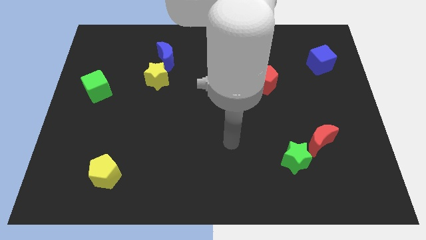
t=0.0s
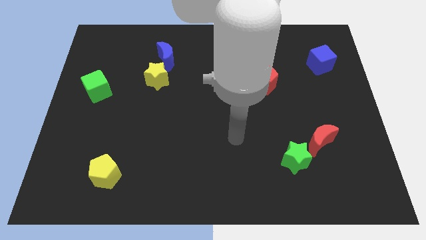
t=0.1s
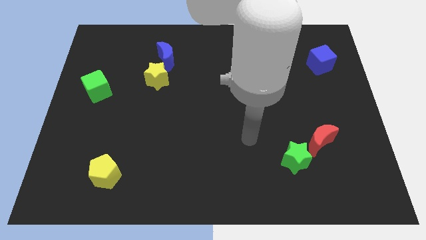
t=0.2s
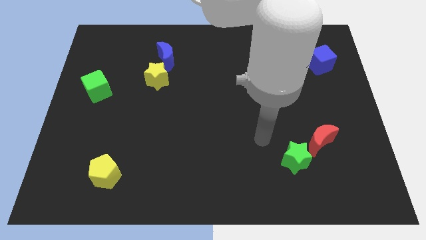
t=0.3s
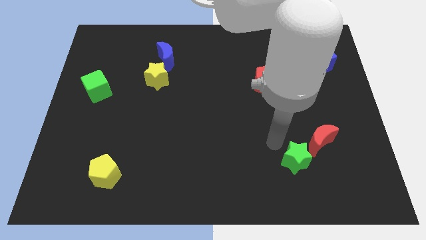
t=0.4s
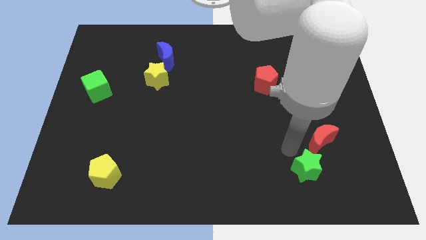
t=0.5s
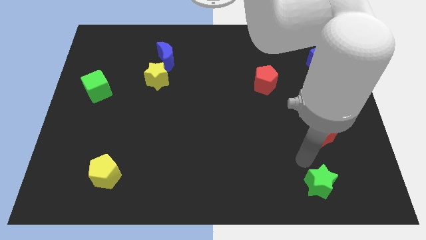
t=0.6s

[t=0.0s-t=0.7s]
separate the red moon from the green star

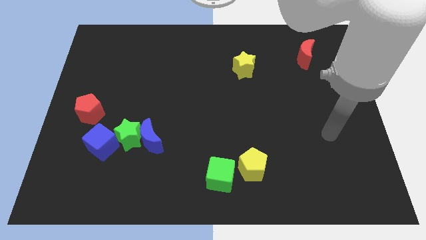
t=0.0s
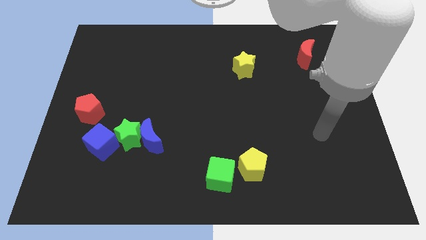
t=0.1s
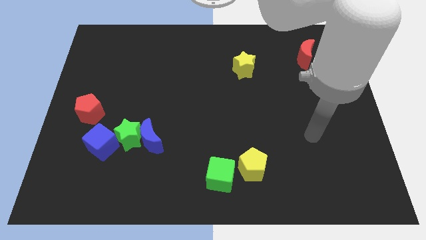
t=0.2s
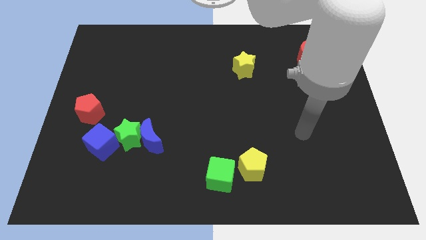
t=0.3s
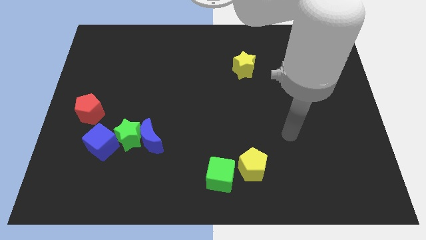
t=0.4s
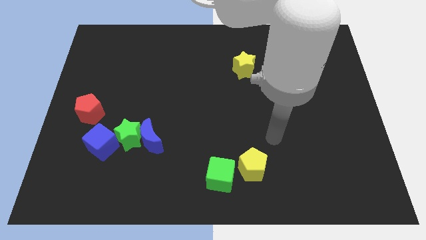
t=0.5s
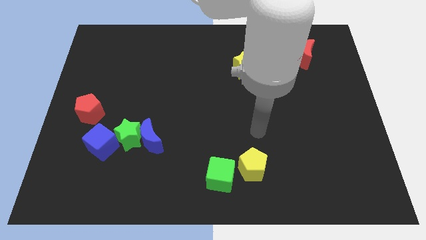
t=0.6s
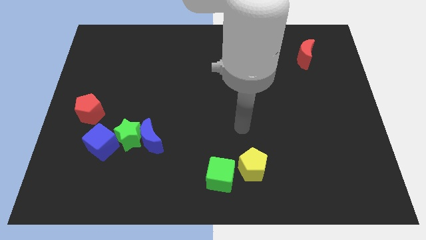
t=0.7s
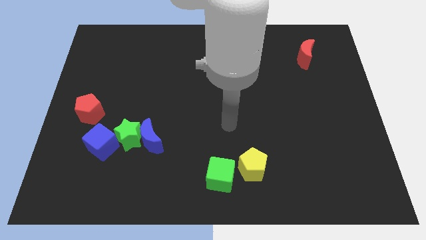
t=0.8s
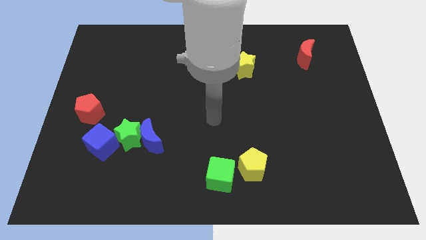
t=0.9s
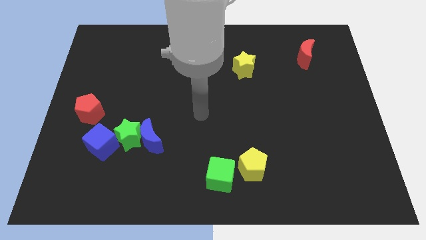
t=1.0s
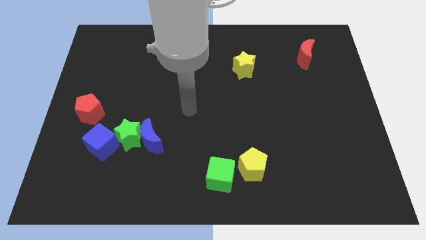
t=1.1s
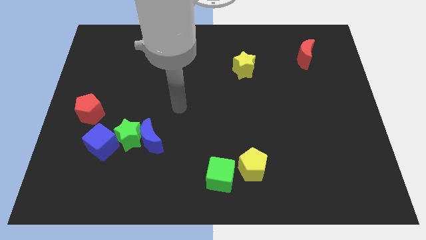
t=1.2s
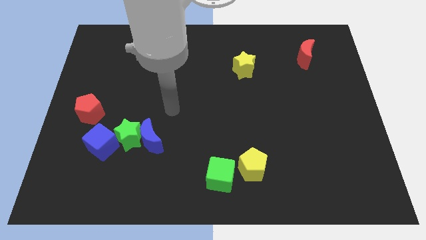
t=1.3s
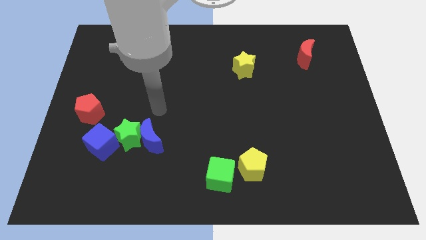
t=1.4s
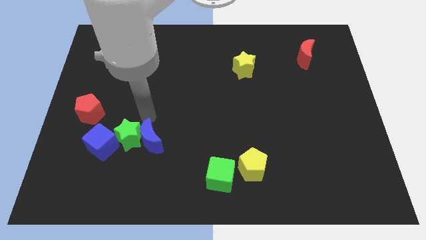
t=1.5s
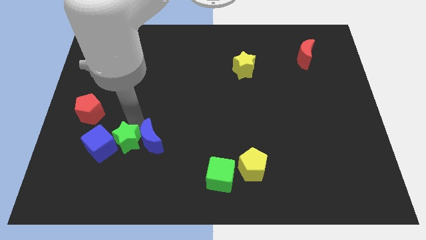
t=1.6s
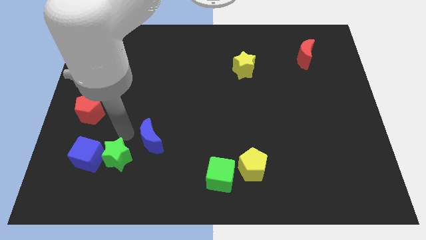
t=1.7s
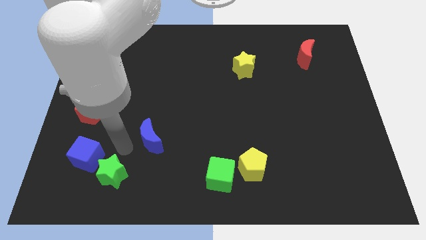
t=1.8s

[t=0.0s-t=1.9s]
separate the blue moon from the green star

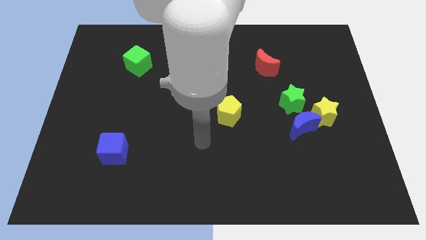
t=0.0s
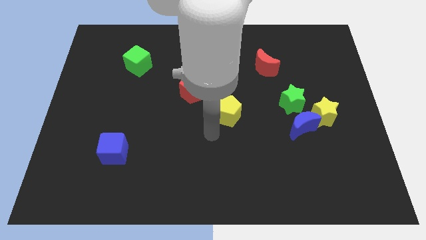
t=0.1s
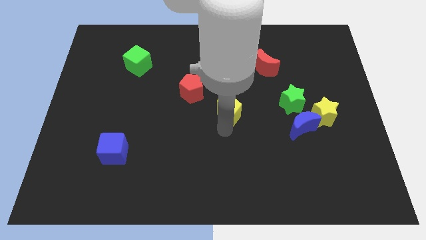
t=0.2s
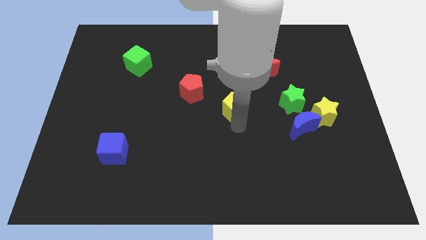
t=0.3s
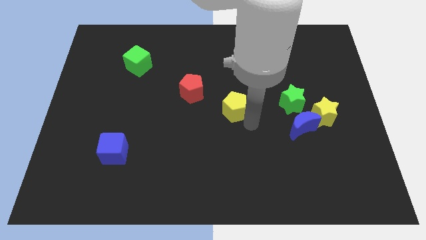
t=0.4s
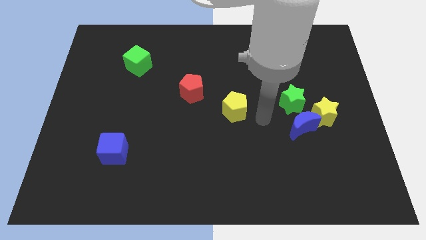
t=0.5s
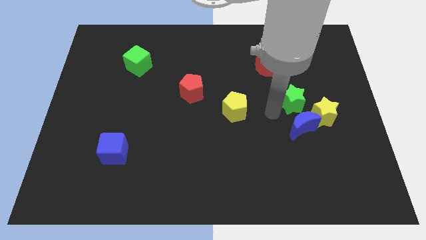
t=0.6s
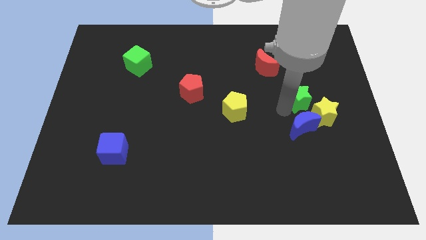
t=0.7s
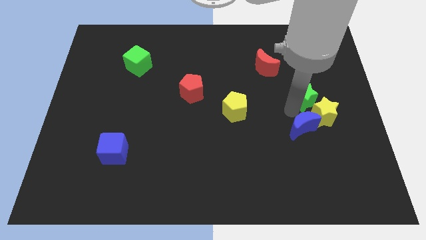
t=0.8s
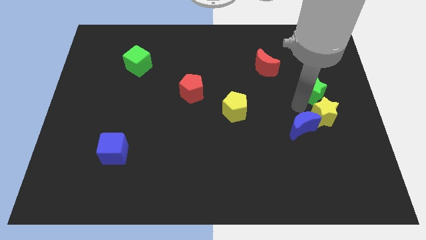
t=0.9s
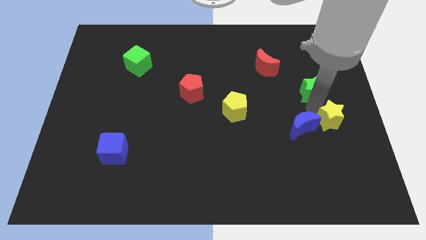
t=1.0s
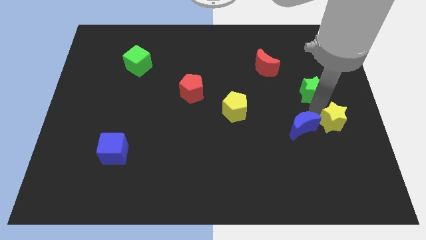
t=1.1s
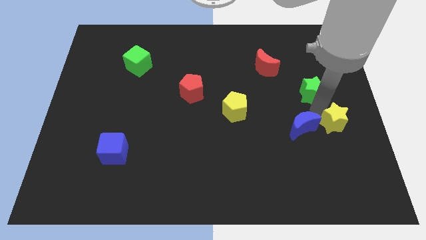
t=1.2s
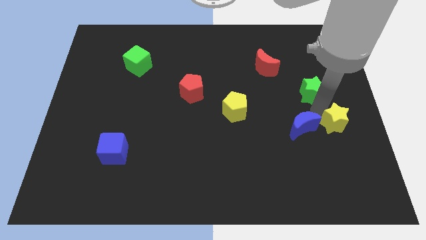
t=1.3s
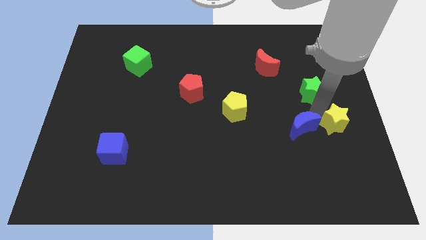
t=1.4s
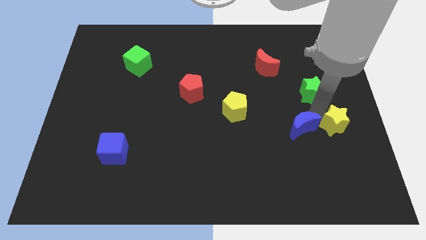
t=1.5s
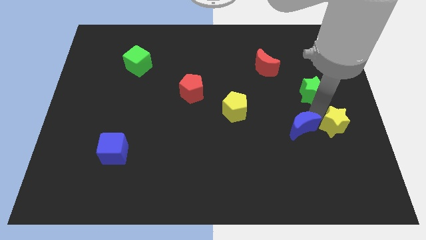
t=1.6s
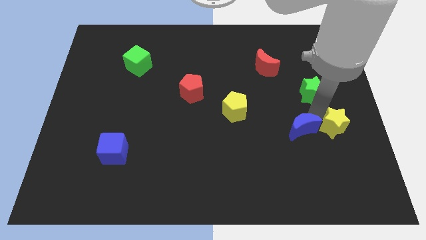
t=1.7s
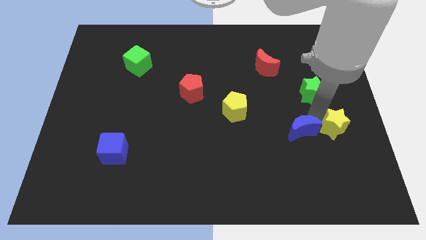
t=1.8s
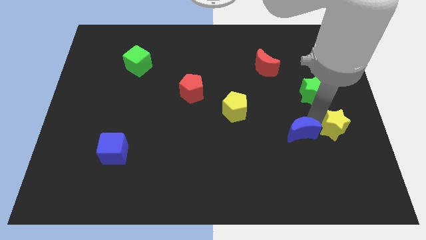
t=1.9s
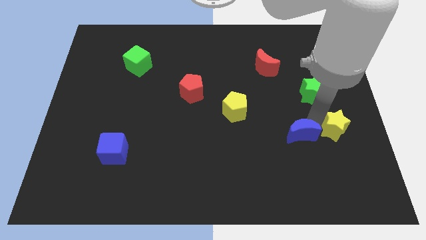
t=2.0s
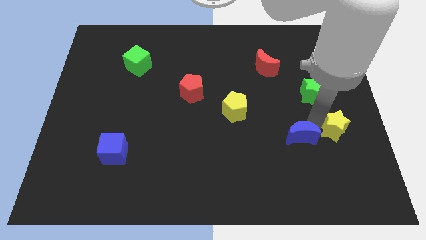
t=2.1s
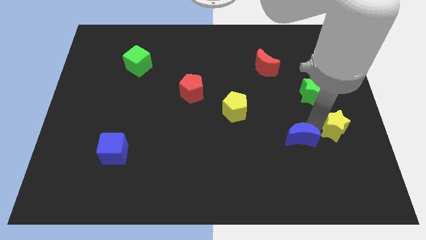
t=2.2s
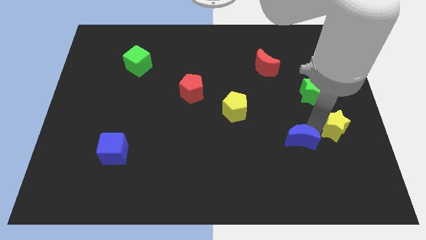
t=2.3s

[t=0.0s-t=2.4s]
pull the blue moon apart from the yellow star and green star

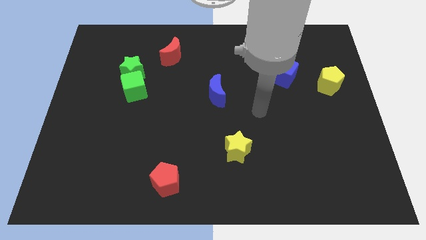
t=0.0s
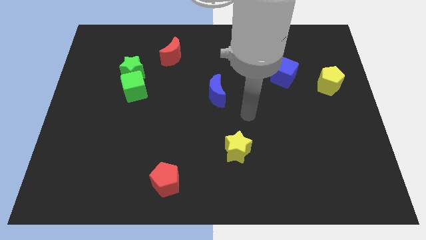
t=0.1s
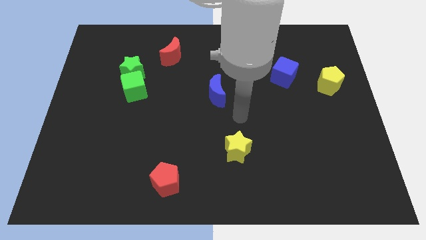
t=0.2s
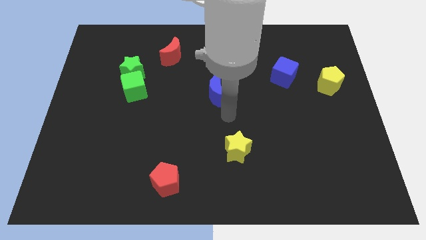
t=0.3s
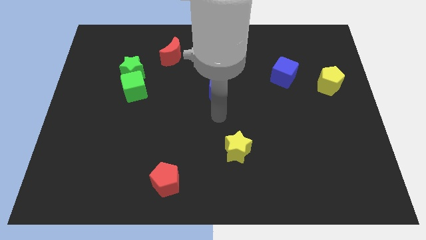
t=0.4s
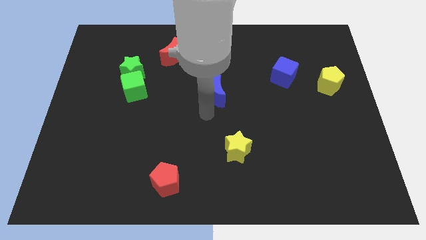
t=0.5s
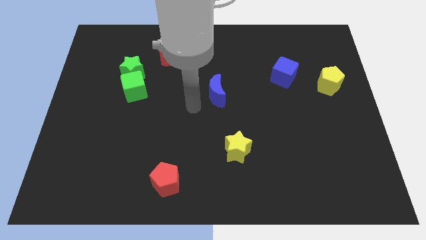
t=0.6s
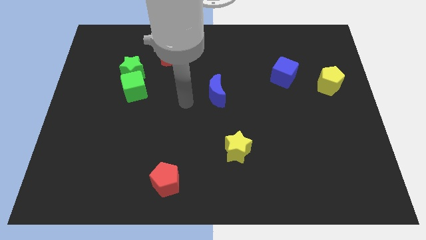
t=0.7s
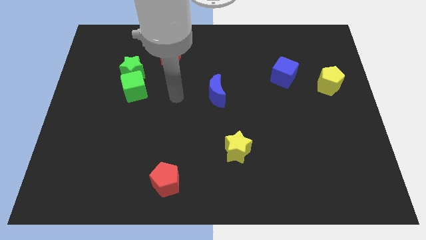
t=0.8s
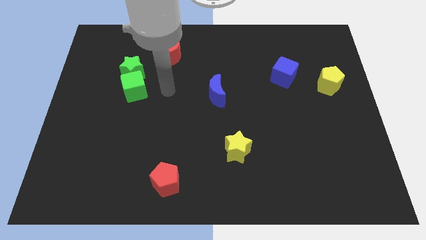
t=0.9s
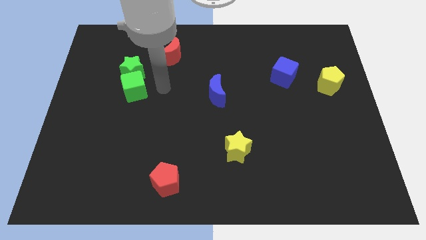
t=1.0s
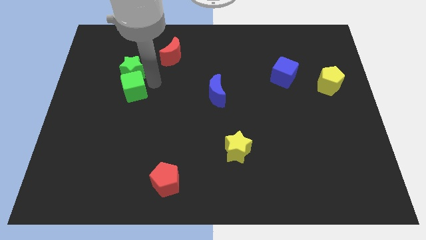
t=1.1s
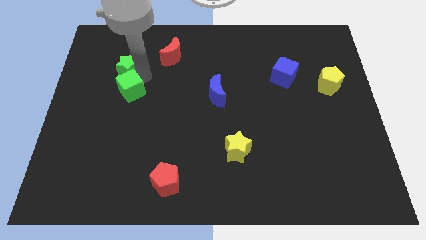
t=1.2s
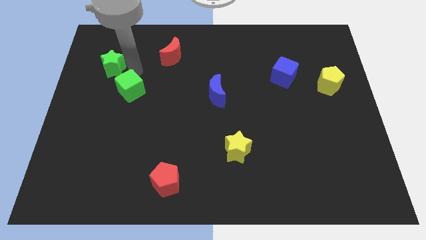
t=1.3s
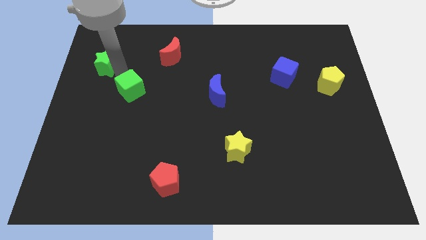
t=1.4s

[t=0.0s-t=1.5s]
move the green cube away from the green star

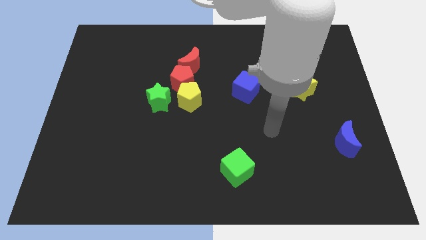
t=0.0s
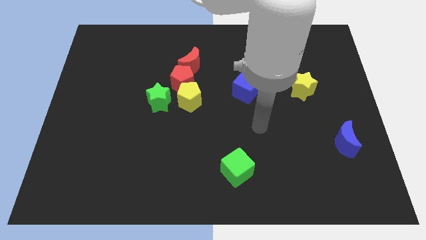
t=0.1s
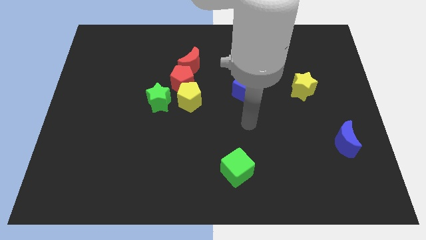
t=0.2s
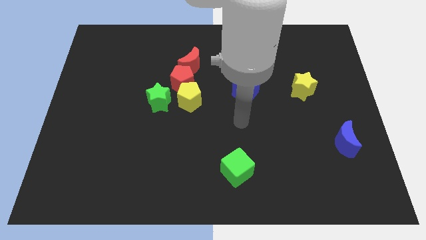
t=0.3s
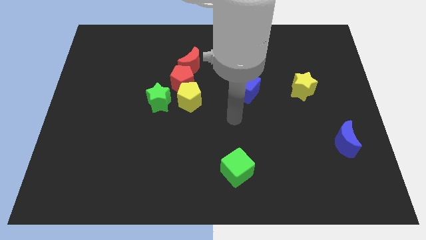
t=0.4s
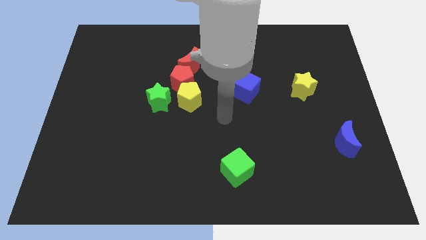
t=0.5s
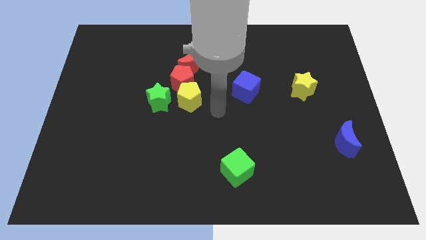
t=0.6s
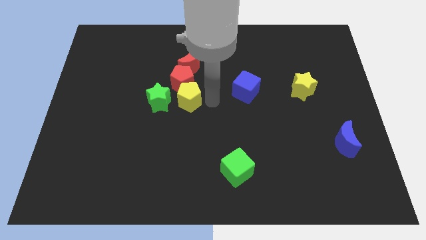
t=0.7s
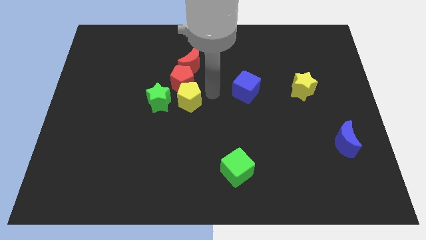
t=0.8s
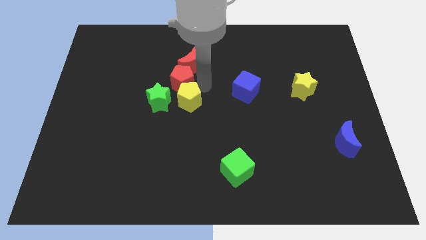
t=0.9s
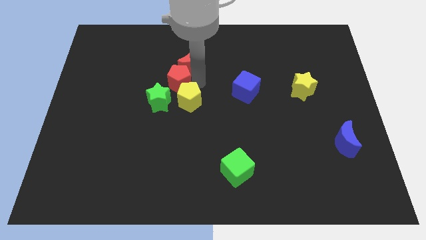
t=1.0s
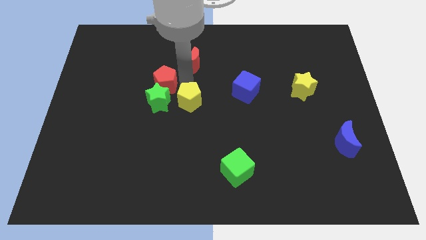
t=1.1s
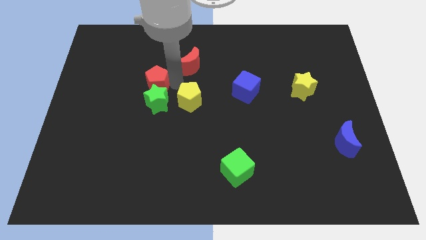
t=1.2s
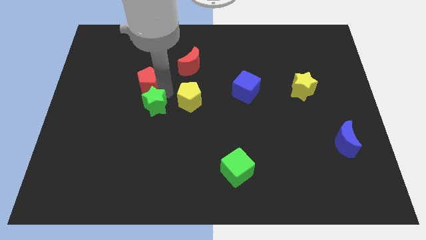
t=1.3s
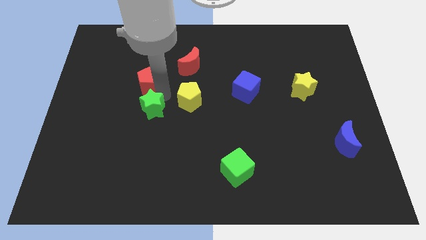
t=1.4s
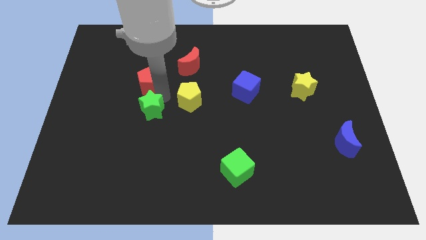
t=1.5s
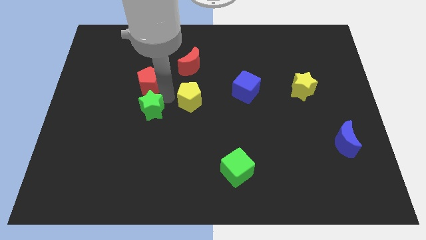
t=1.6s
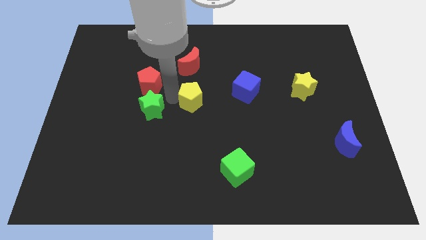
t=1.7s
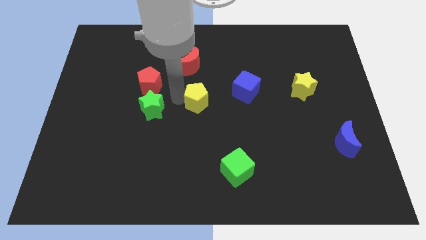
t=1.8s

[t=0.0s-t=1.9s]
separate the yellow pentagon from the red pentagon and green star

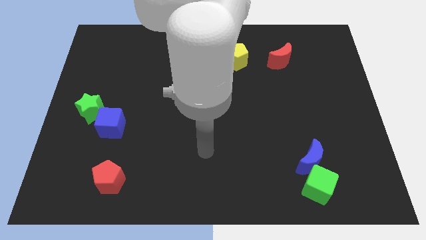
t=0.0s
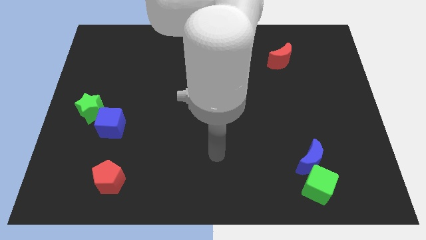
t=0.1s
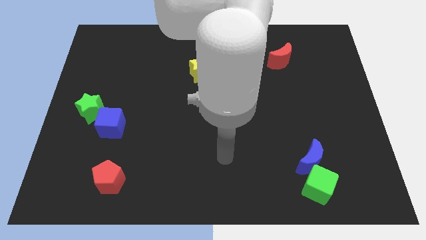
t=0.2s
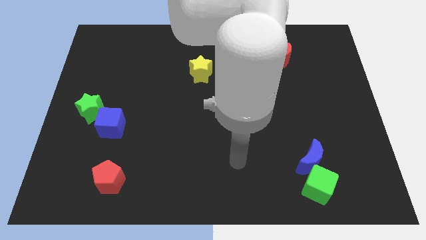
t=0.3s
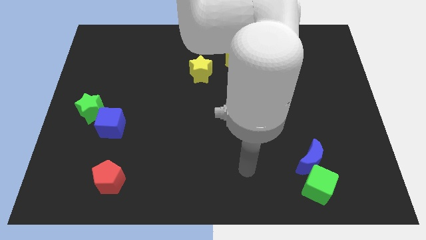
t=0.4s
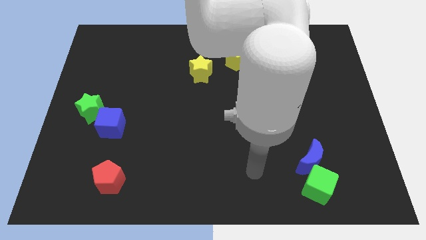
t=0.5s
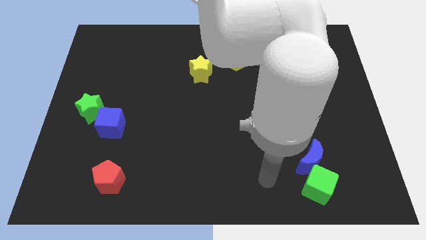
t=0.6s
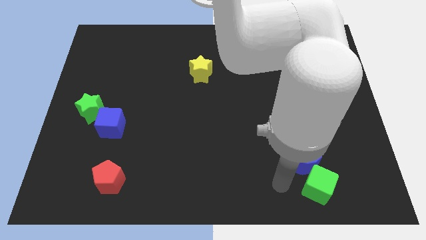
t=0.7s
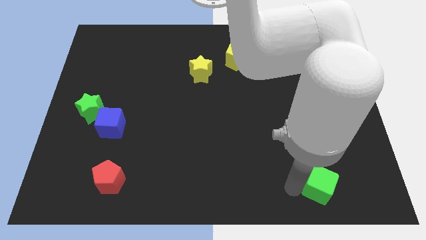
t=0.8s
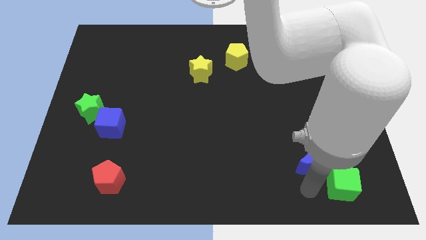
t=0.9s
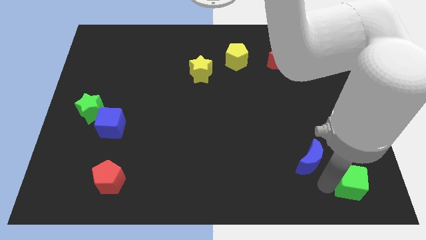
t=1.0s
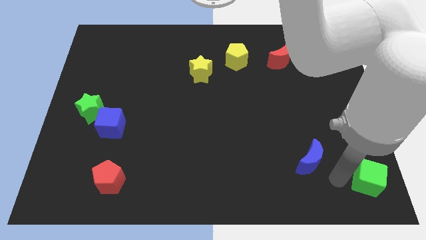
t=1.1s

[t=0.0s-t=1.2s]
separate the blue moon from the green cube
